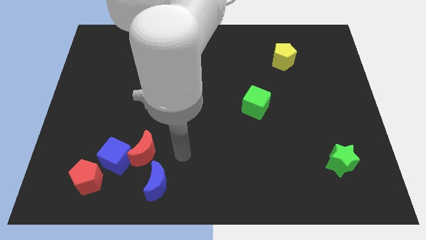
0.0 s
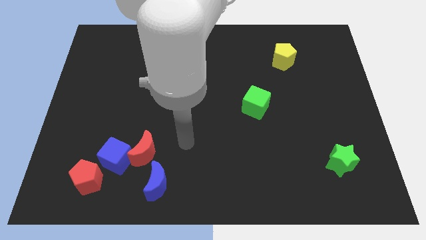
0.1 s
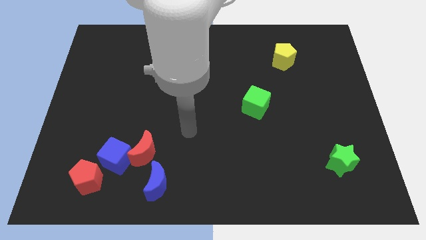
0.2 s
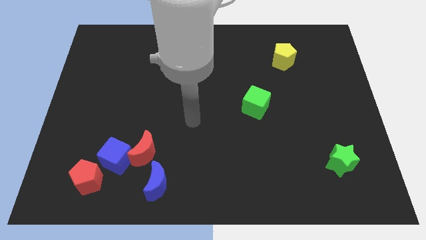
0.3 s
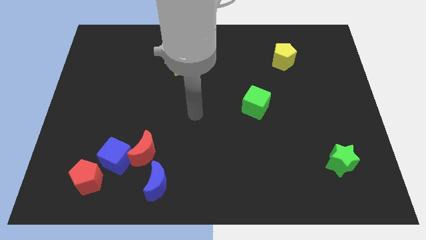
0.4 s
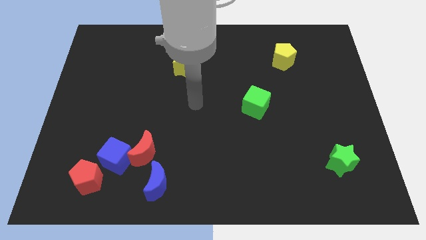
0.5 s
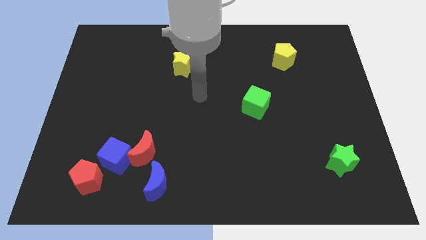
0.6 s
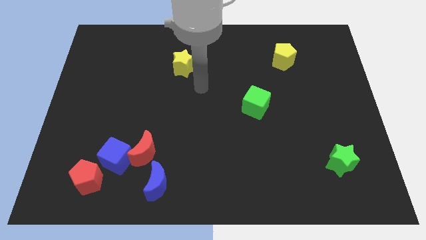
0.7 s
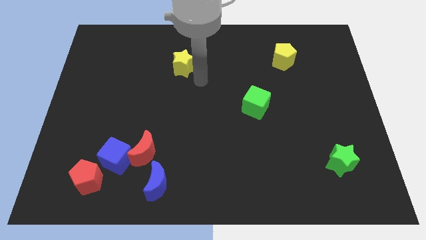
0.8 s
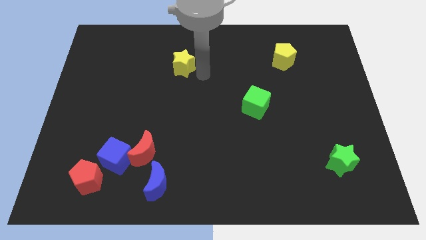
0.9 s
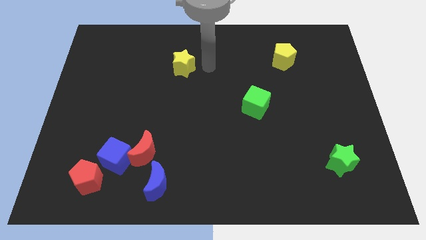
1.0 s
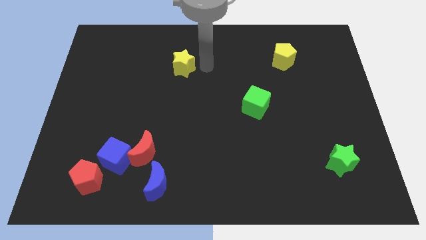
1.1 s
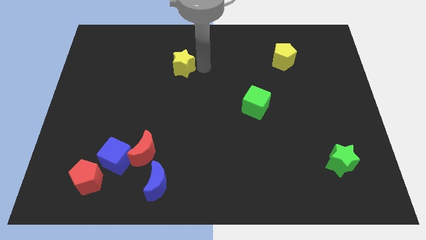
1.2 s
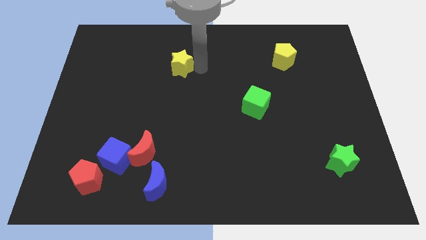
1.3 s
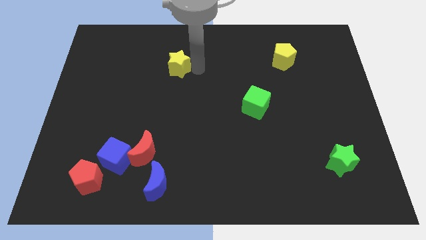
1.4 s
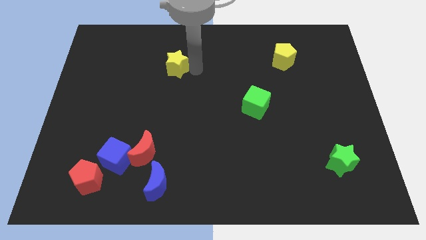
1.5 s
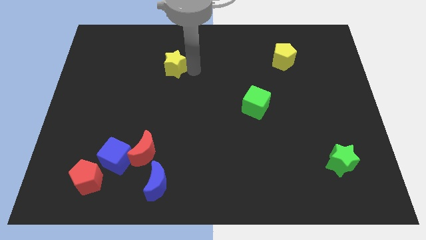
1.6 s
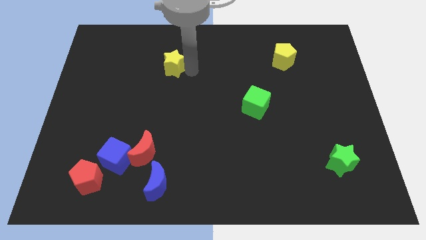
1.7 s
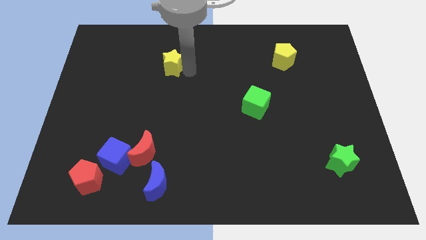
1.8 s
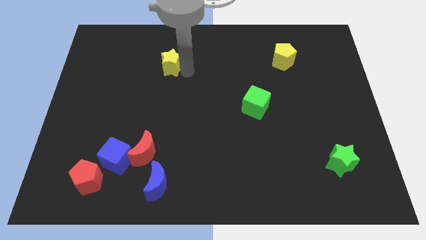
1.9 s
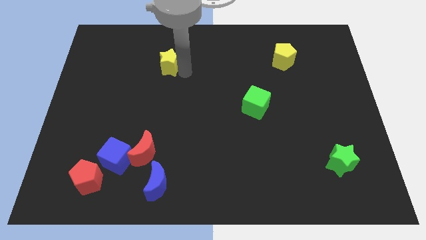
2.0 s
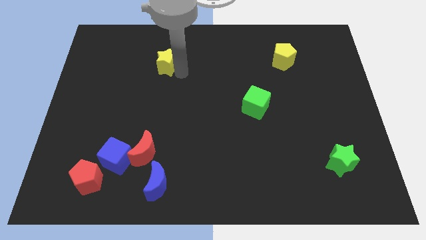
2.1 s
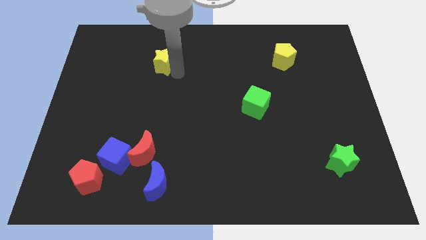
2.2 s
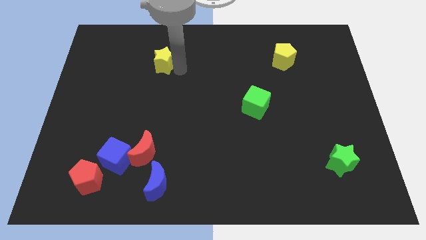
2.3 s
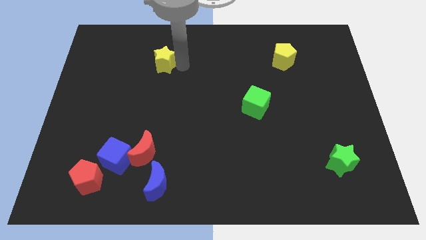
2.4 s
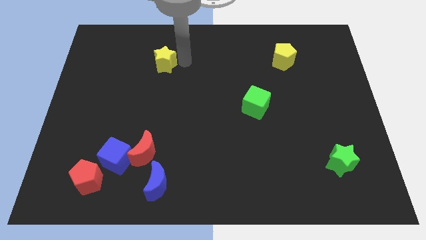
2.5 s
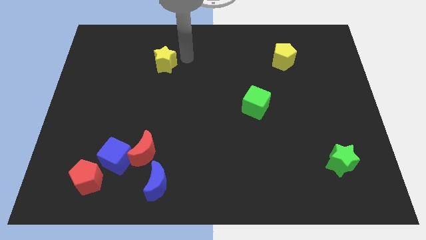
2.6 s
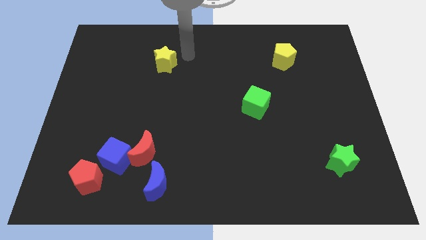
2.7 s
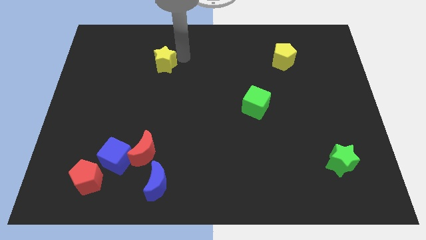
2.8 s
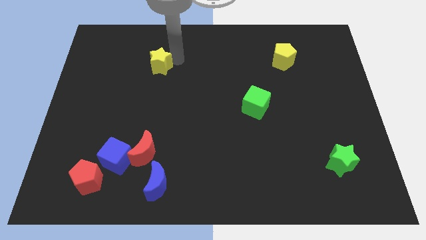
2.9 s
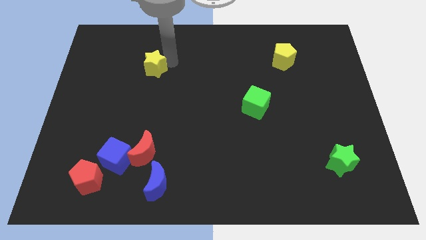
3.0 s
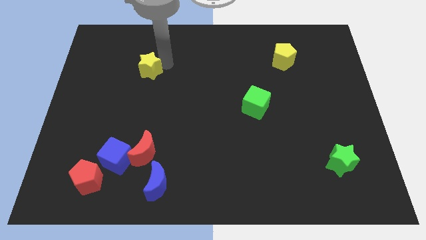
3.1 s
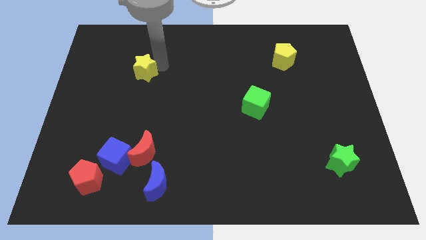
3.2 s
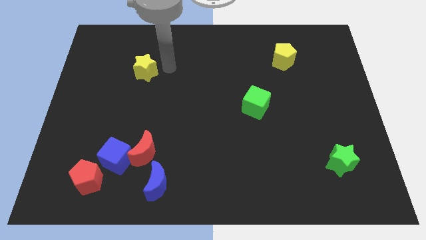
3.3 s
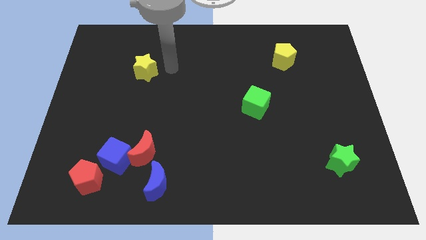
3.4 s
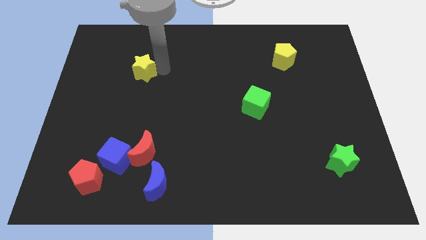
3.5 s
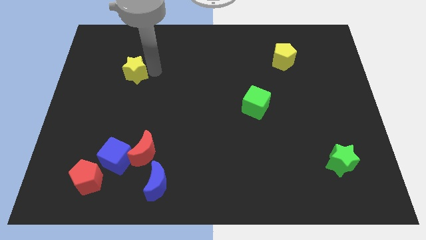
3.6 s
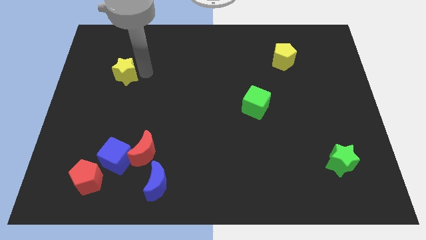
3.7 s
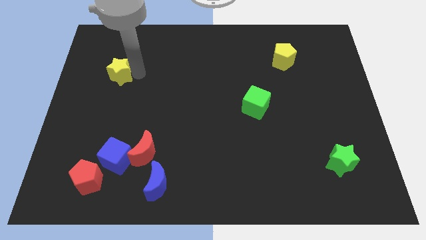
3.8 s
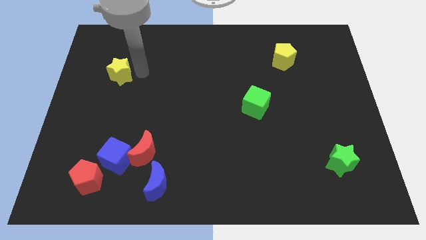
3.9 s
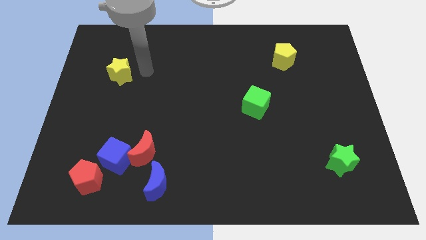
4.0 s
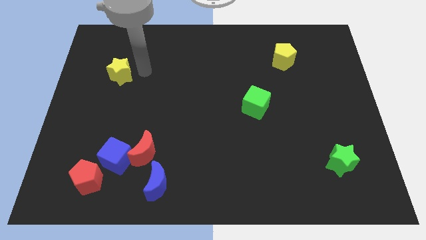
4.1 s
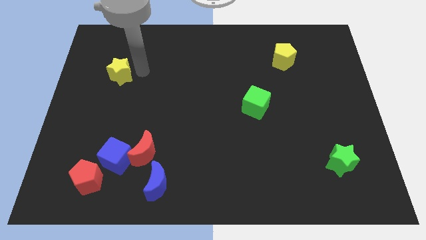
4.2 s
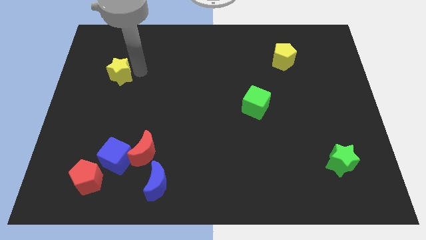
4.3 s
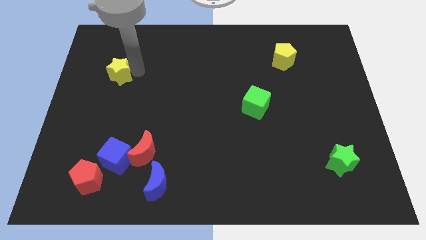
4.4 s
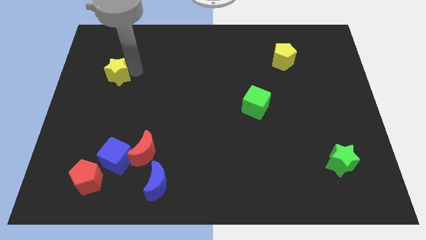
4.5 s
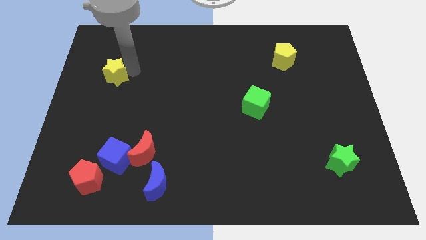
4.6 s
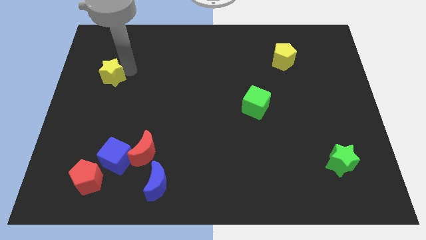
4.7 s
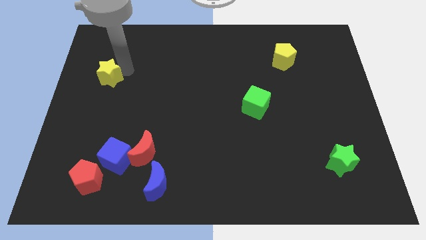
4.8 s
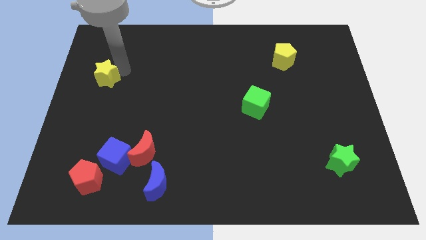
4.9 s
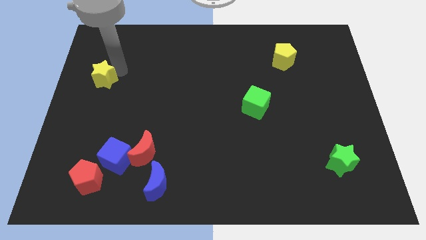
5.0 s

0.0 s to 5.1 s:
put the yellow star to the center left

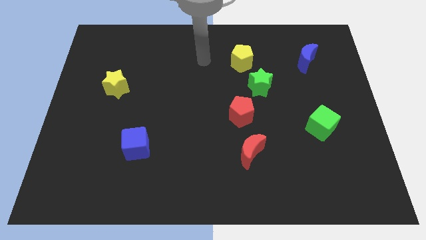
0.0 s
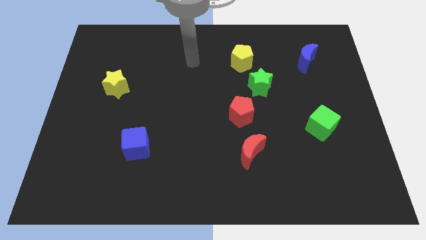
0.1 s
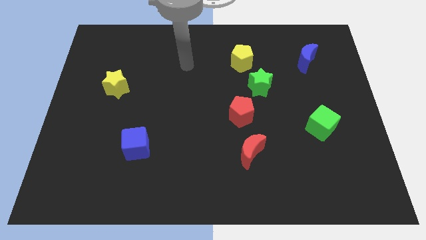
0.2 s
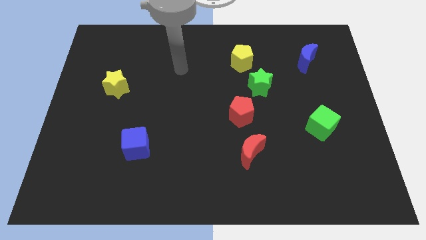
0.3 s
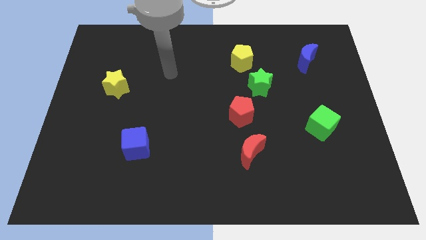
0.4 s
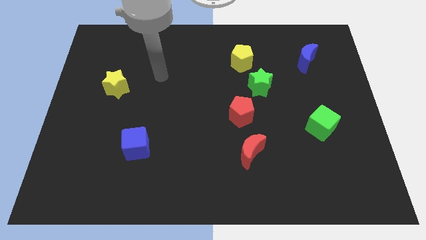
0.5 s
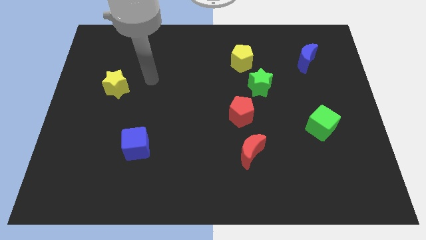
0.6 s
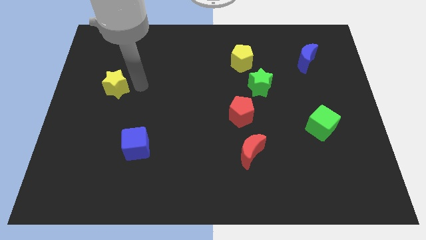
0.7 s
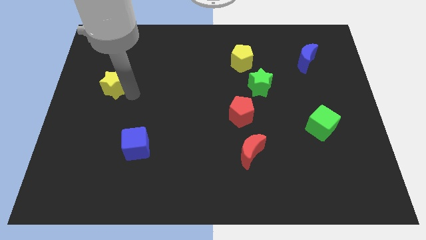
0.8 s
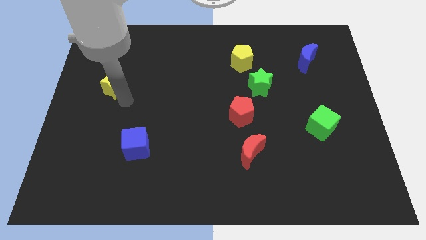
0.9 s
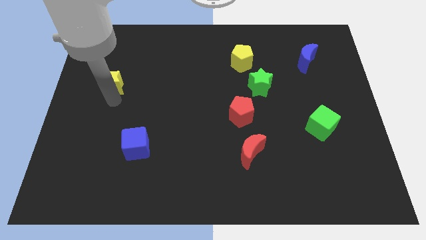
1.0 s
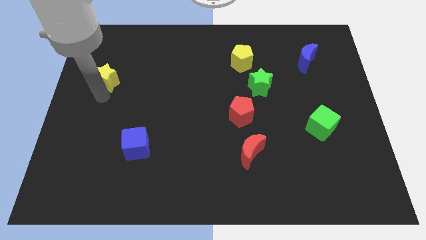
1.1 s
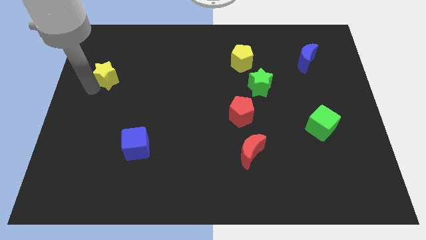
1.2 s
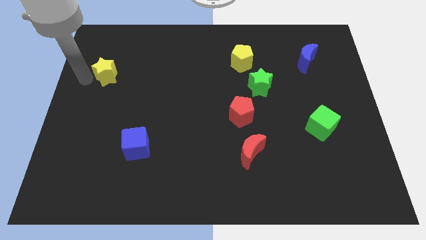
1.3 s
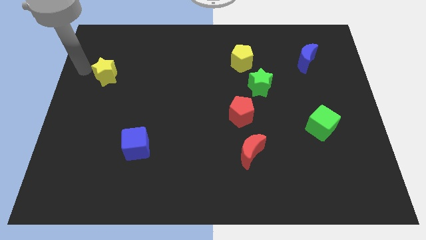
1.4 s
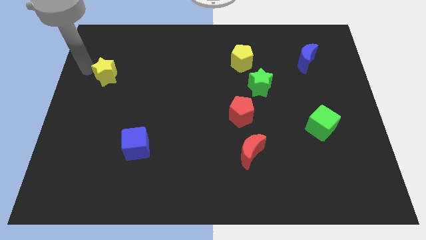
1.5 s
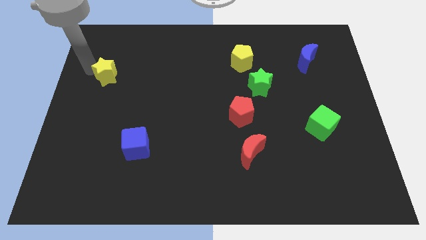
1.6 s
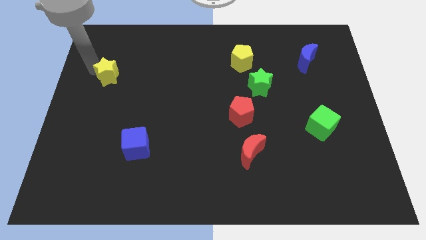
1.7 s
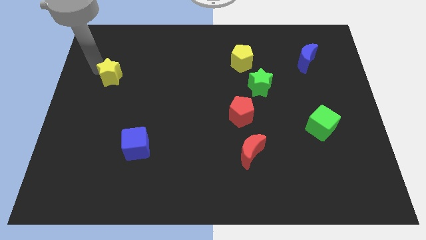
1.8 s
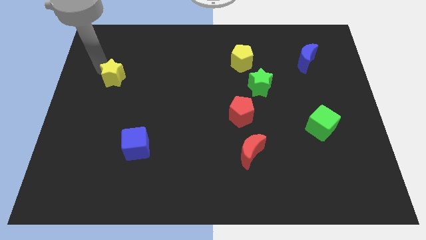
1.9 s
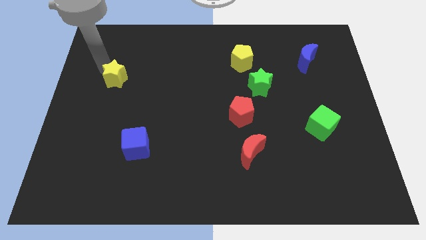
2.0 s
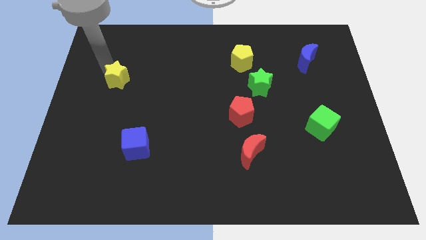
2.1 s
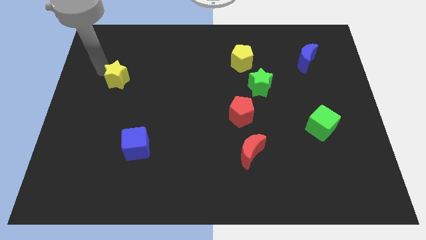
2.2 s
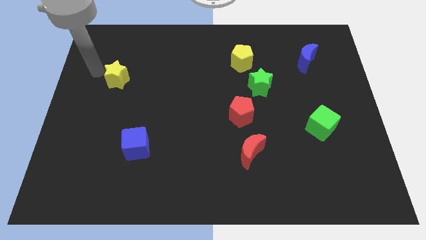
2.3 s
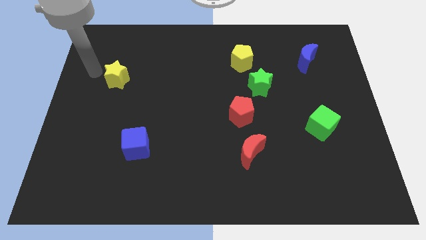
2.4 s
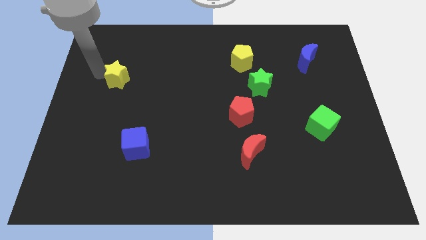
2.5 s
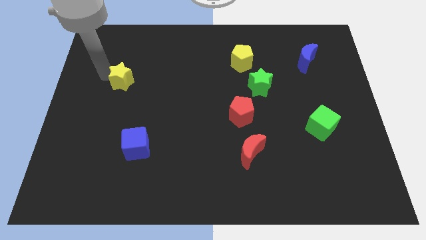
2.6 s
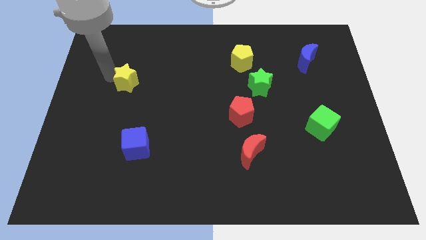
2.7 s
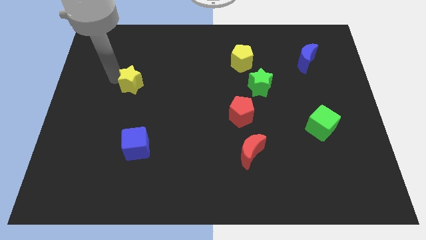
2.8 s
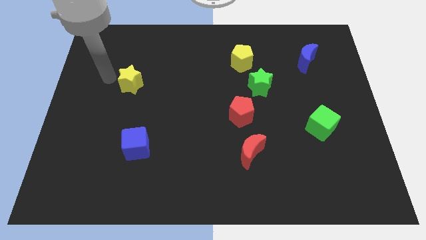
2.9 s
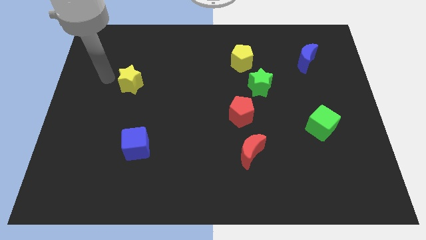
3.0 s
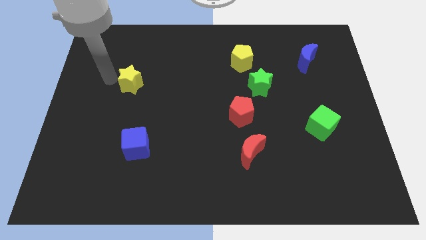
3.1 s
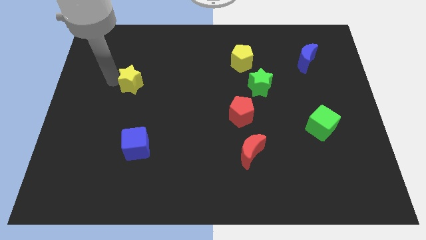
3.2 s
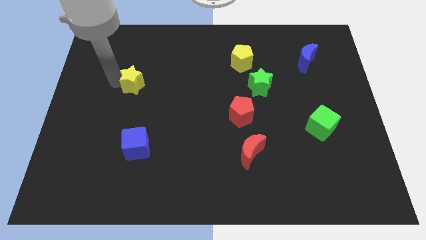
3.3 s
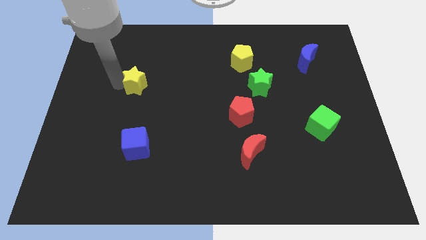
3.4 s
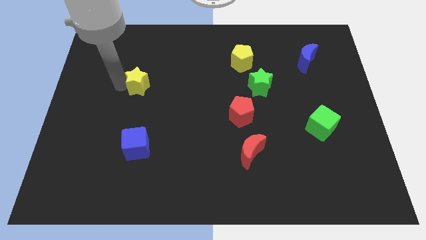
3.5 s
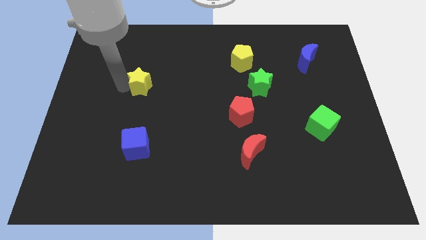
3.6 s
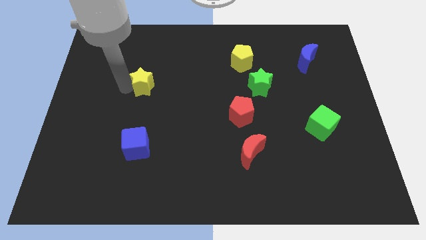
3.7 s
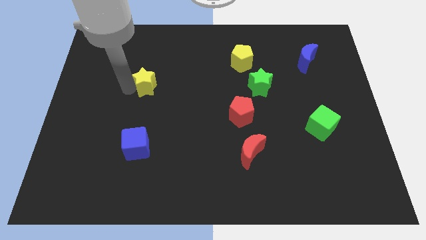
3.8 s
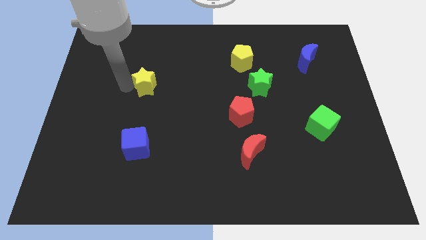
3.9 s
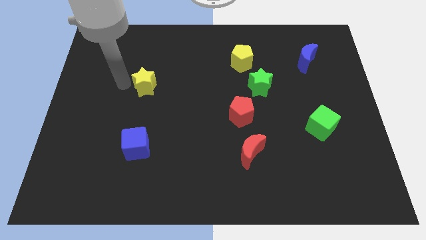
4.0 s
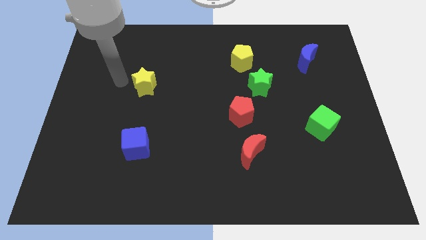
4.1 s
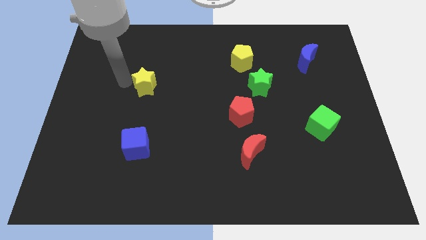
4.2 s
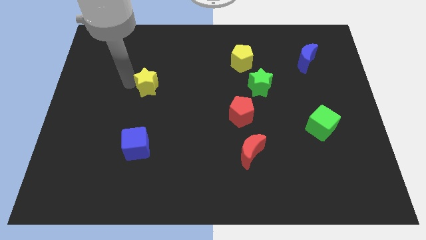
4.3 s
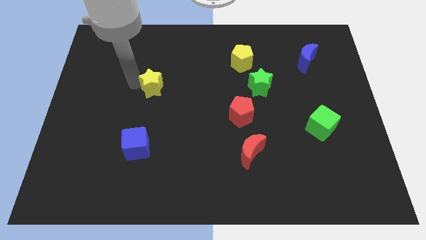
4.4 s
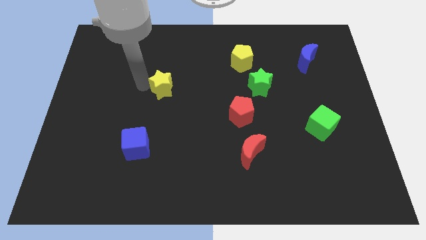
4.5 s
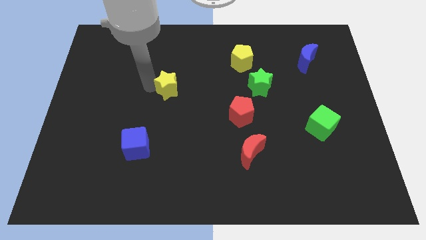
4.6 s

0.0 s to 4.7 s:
put the yellow star to the center
